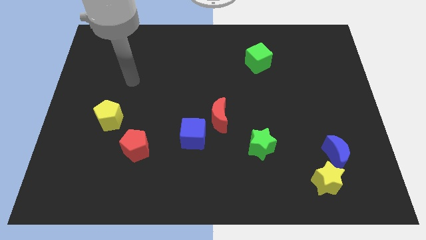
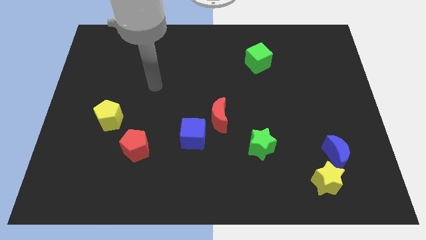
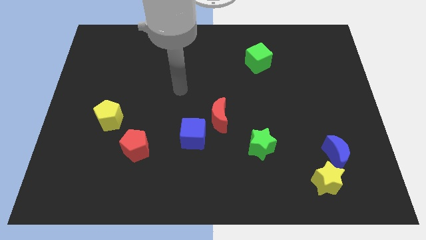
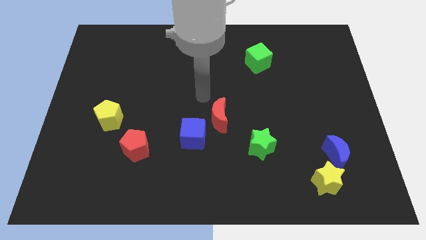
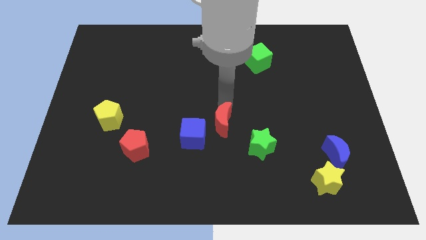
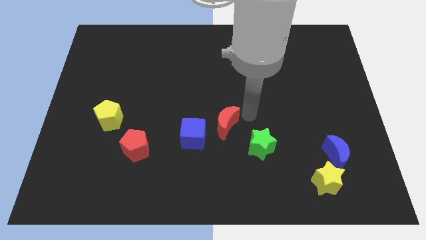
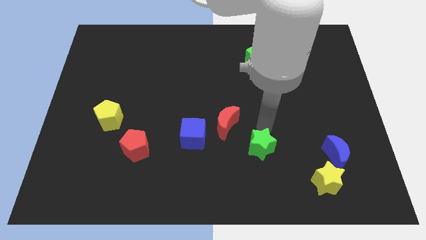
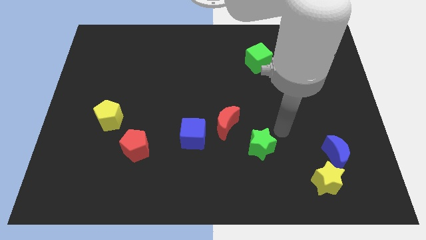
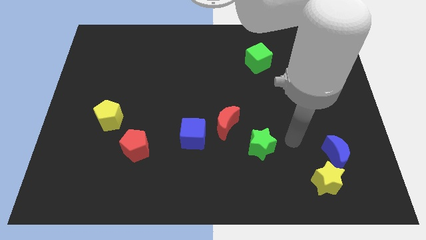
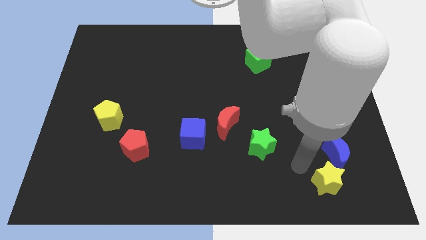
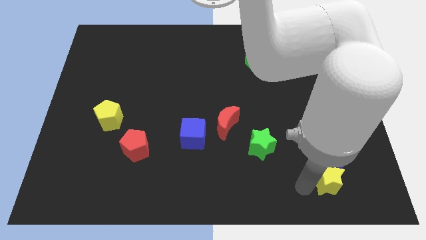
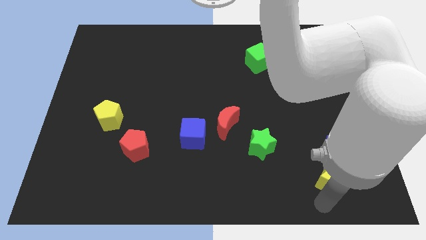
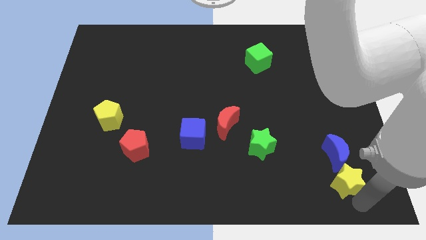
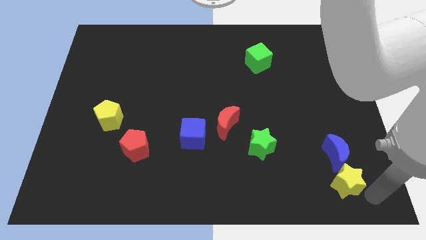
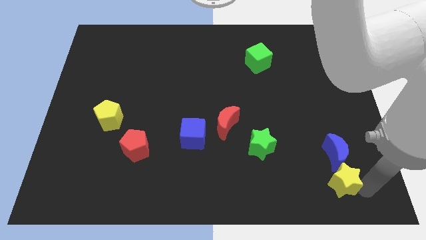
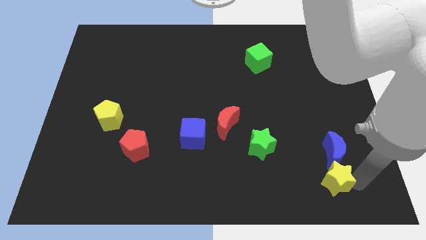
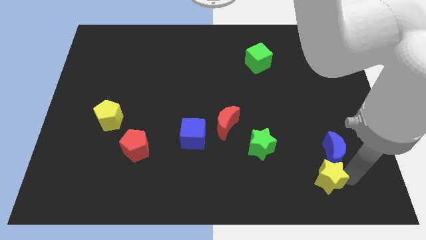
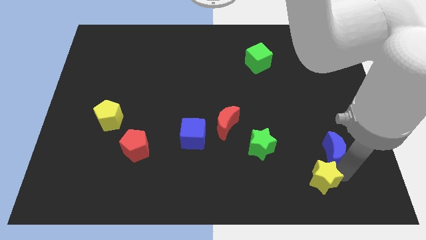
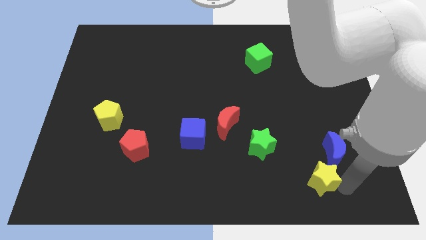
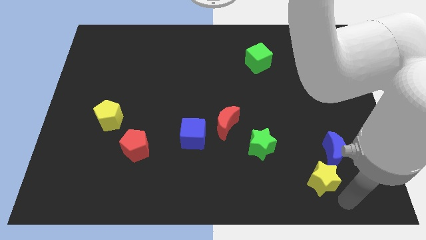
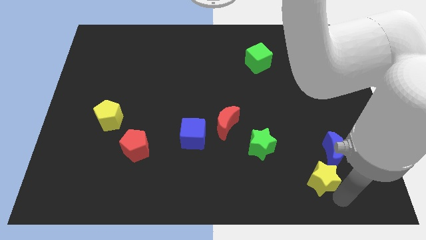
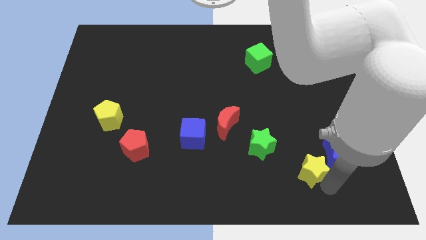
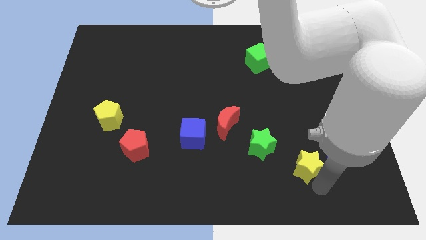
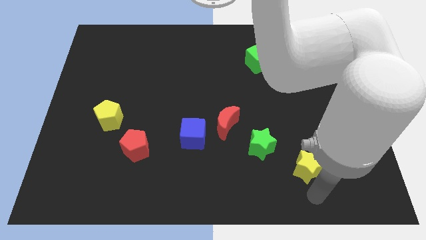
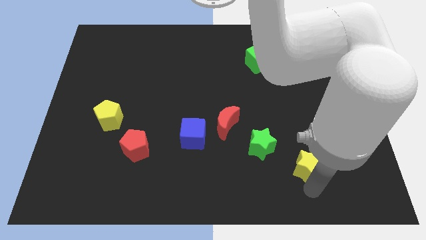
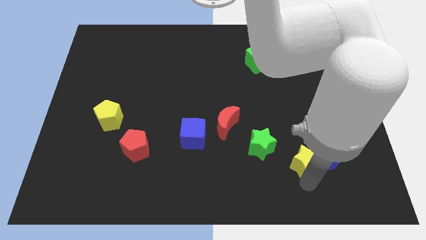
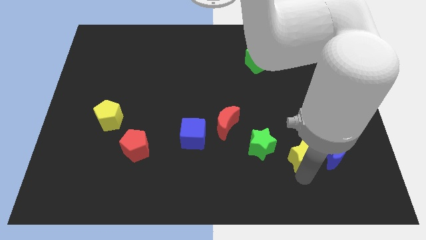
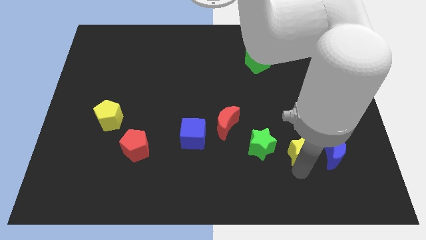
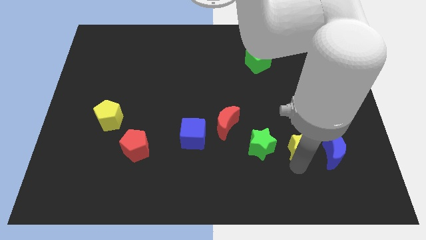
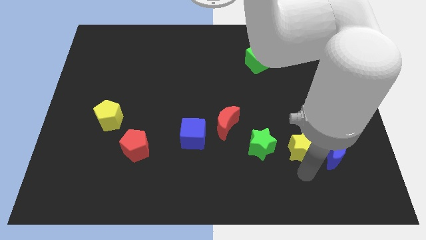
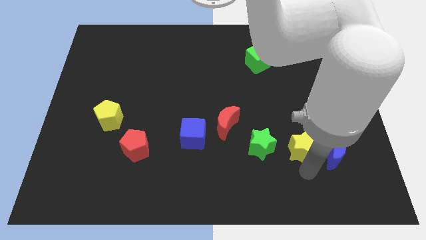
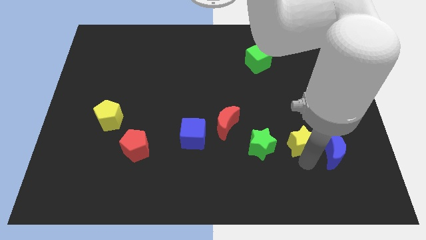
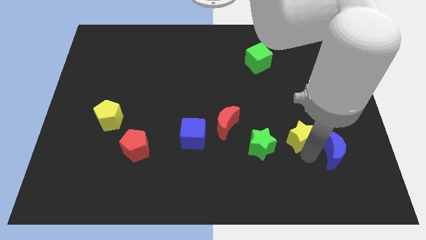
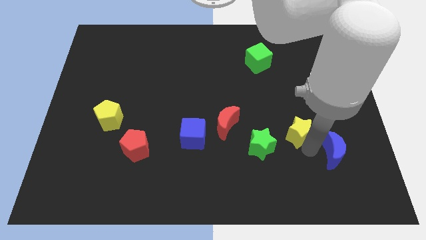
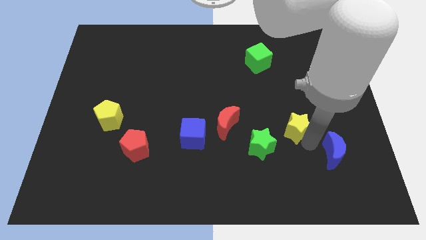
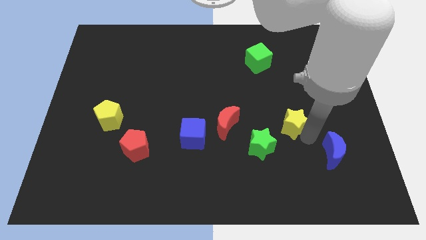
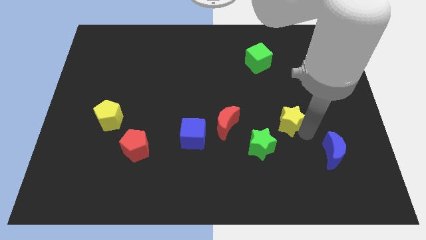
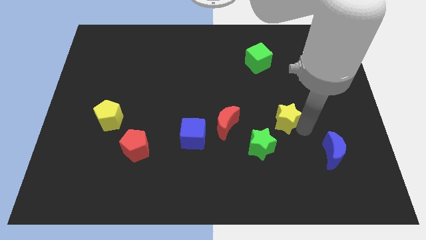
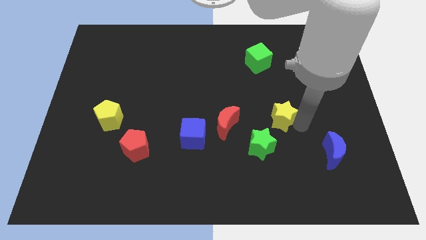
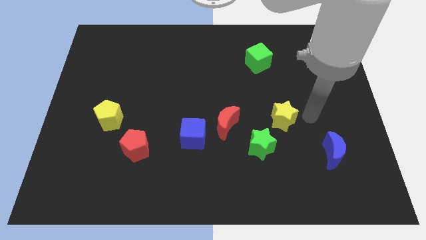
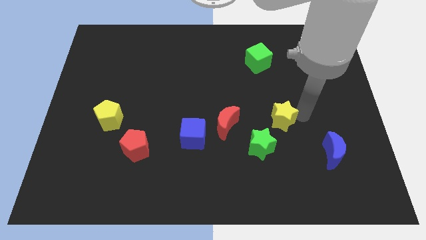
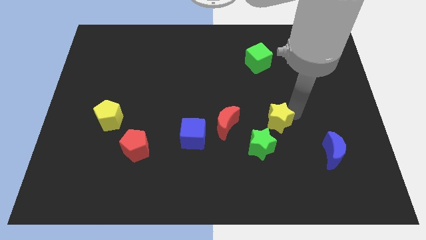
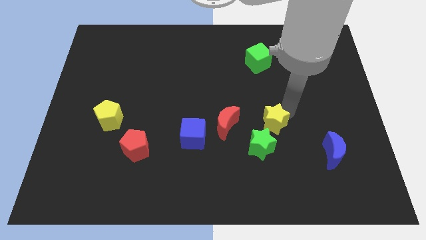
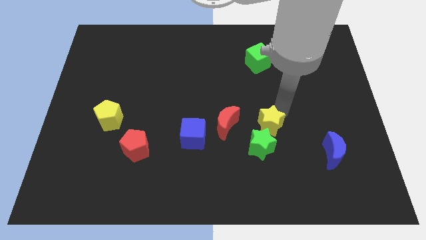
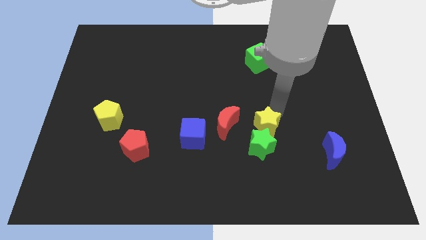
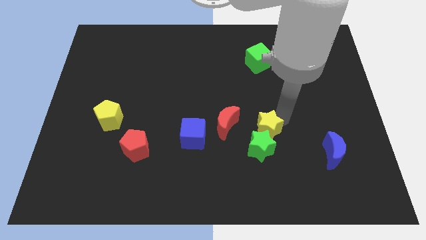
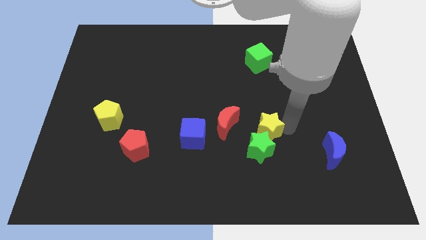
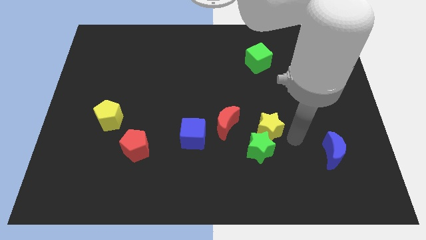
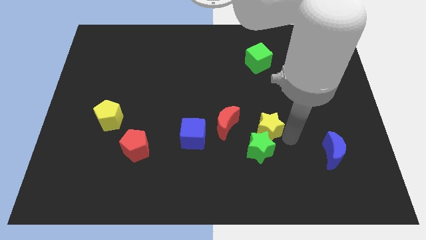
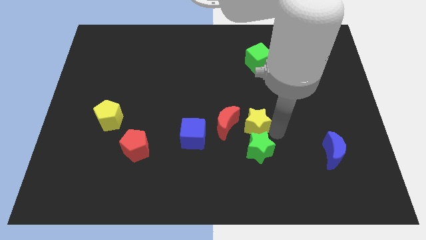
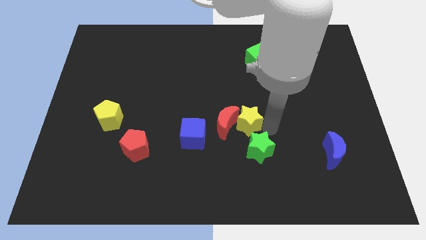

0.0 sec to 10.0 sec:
move the yellow star towards the red moon

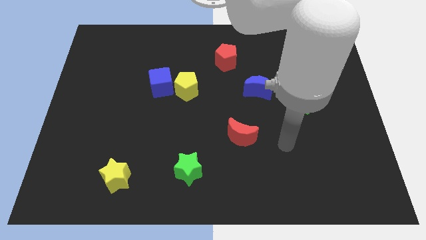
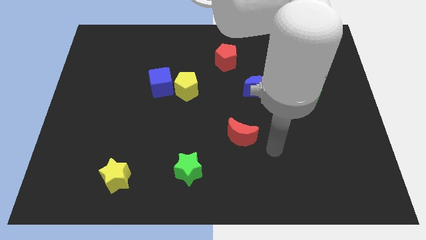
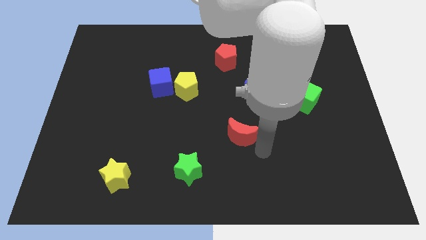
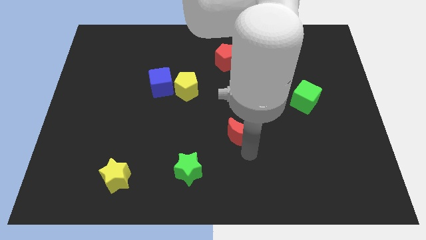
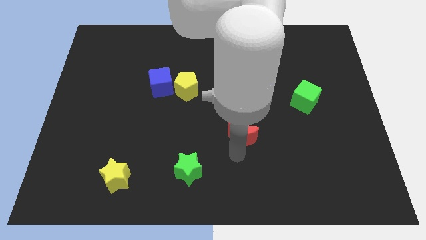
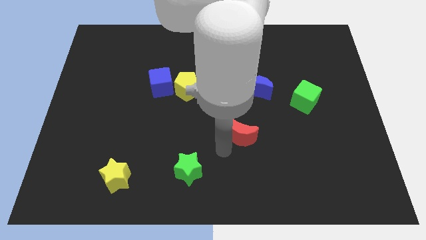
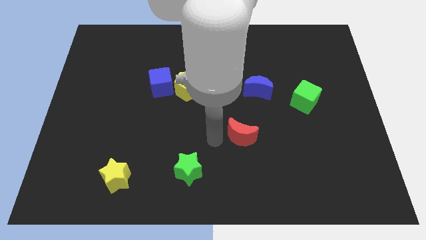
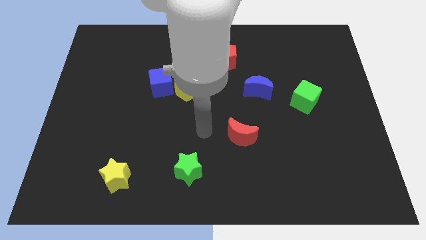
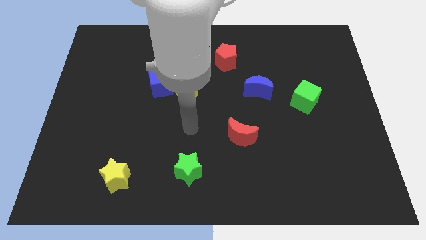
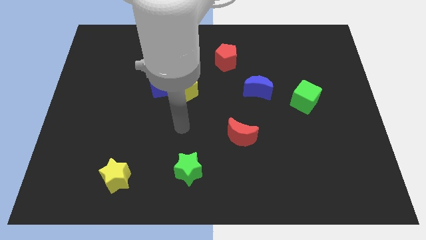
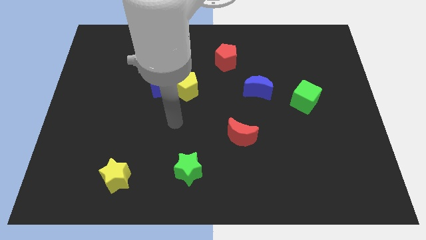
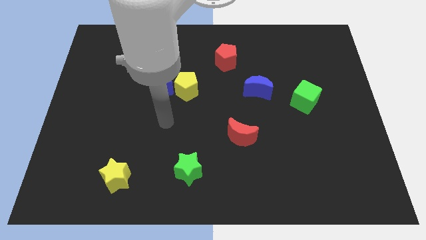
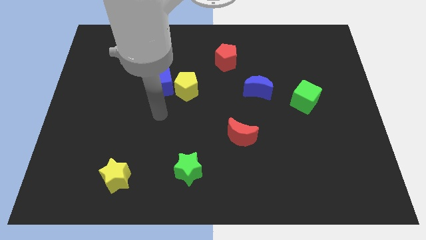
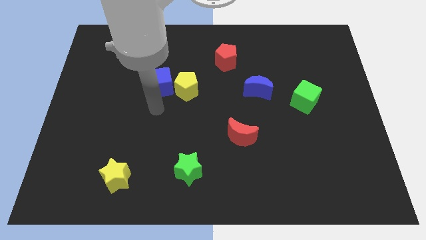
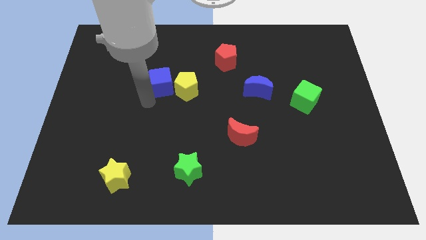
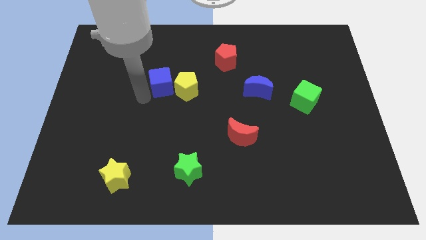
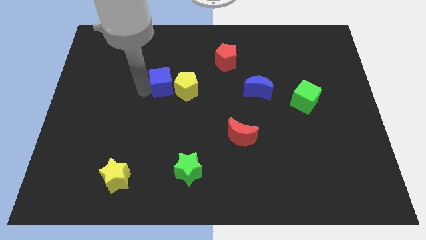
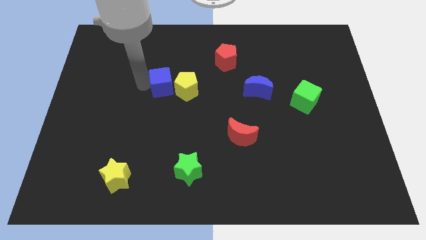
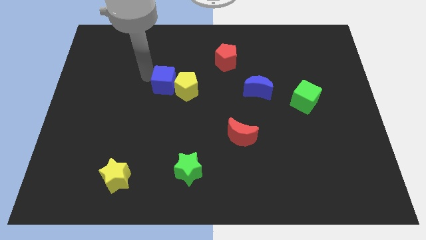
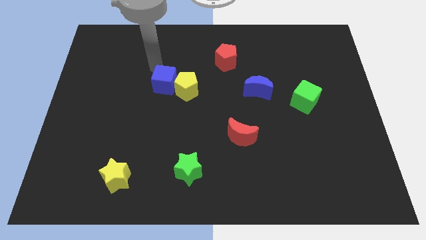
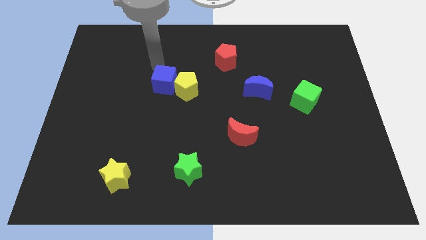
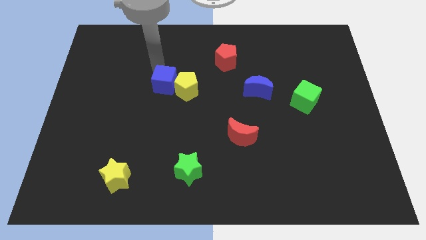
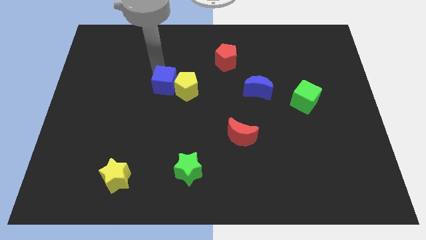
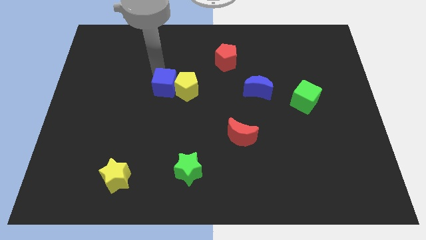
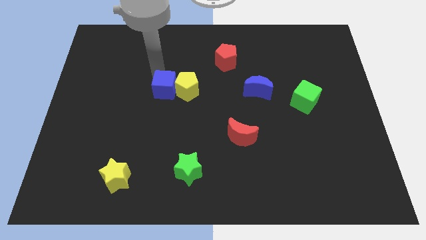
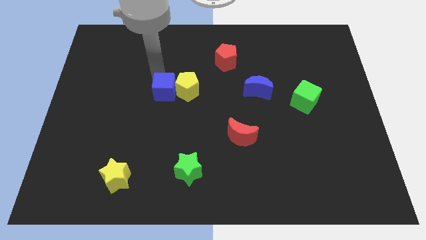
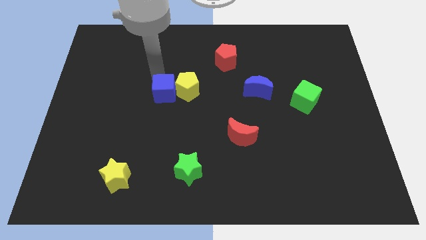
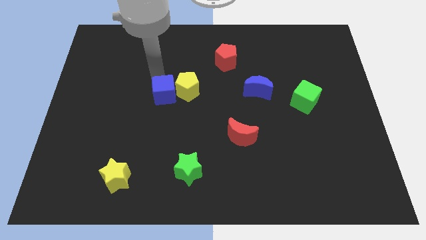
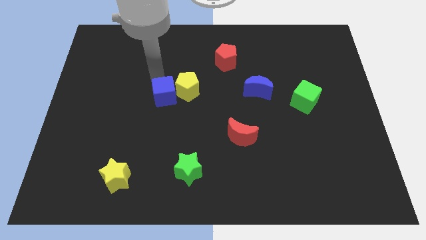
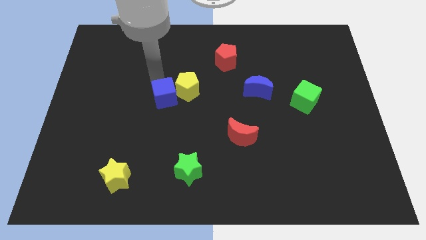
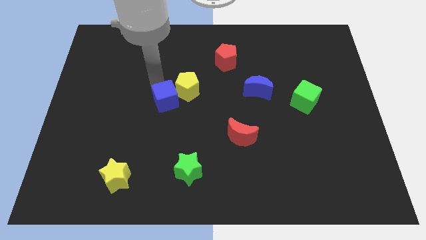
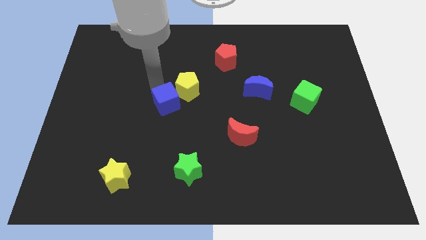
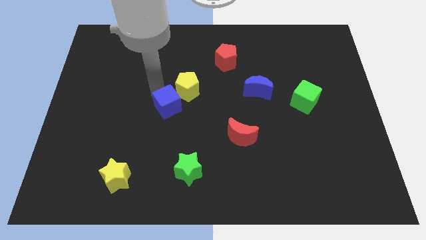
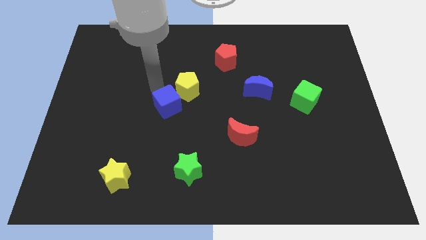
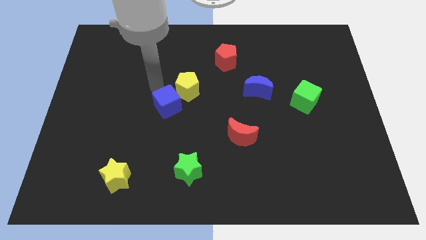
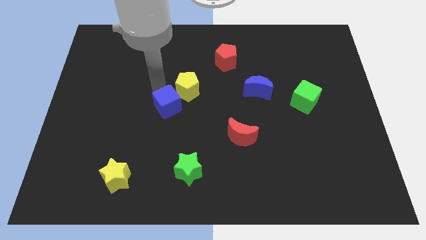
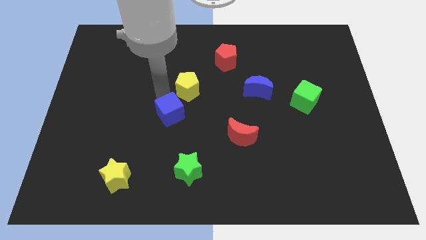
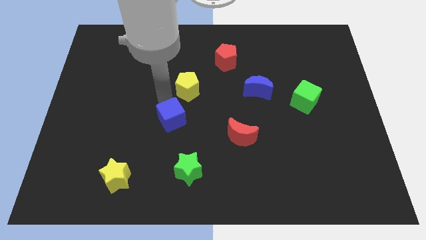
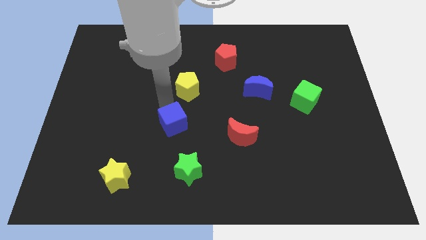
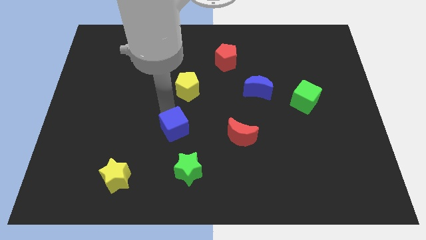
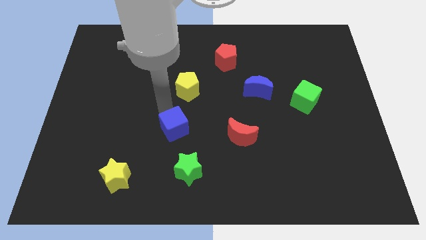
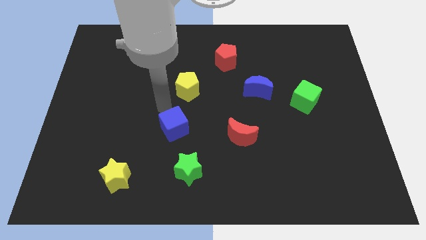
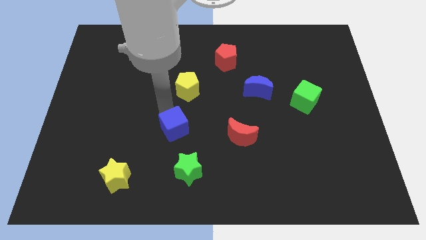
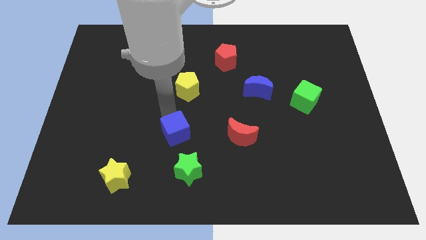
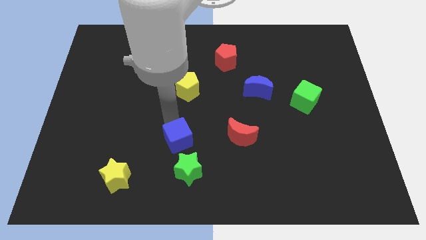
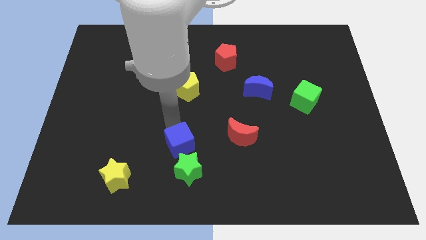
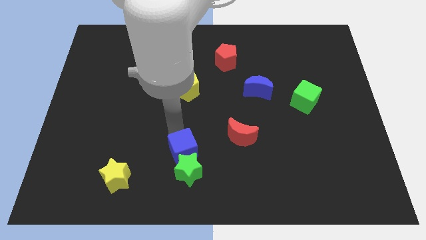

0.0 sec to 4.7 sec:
put the blue cube towards the green star
